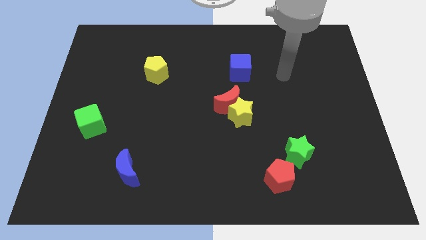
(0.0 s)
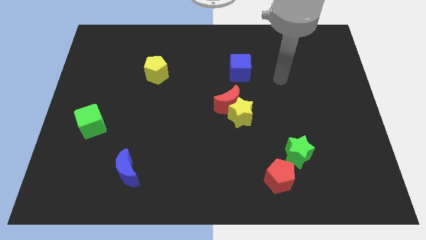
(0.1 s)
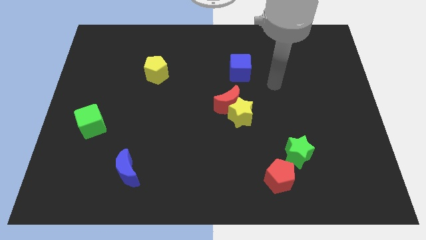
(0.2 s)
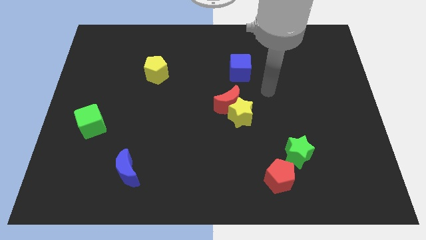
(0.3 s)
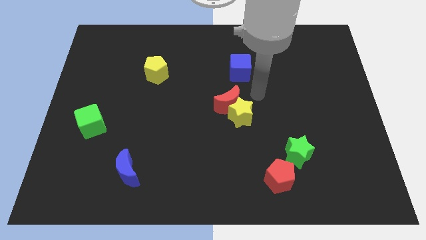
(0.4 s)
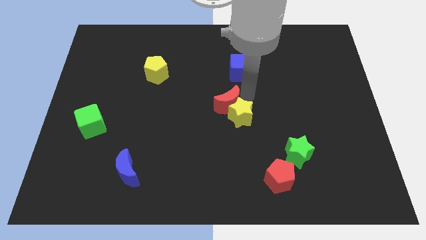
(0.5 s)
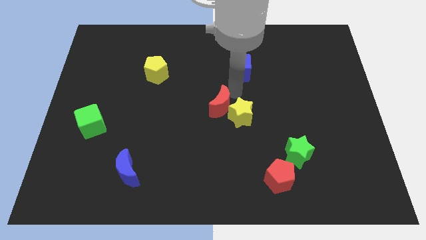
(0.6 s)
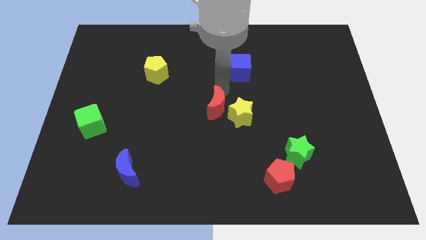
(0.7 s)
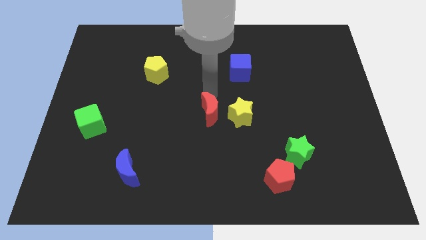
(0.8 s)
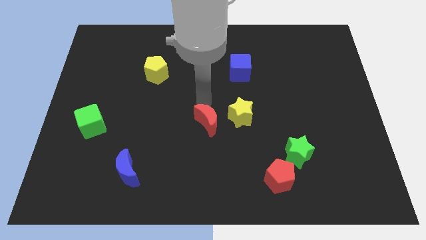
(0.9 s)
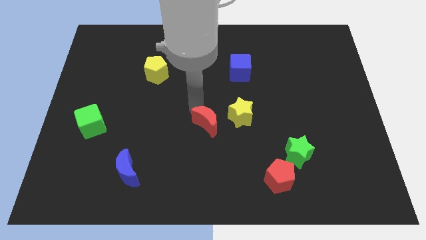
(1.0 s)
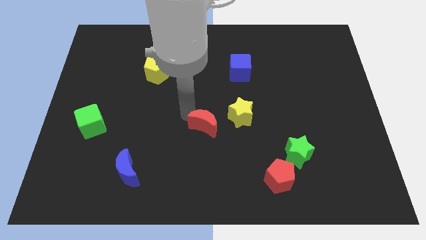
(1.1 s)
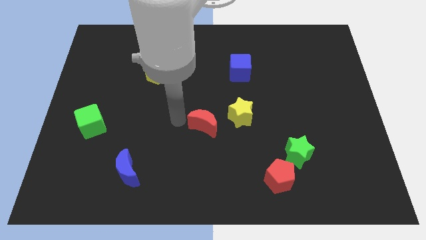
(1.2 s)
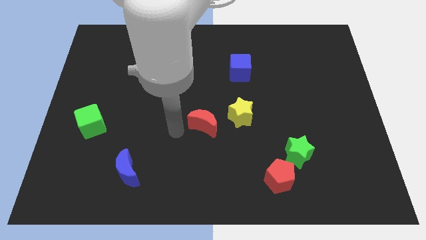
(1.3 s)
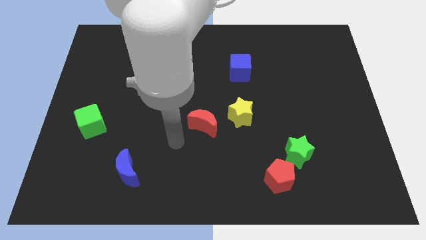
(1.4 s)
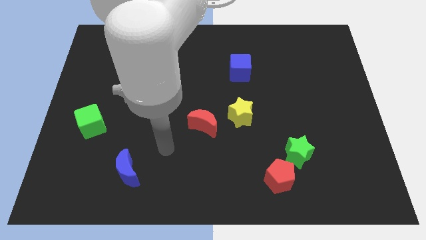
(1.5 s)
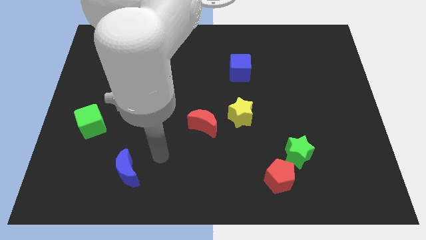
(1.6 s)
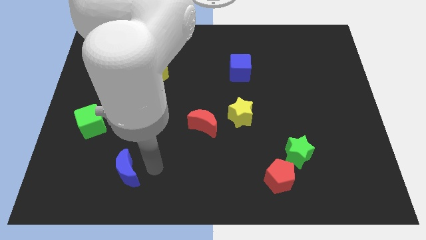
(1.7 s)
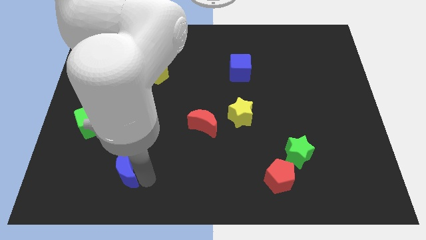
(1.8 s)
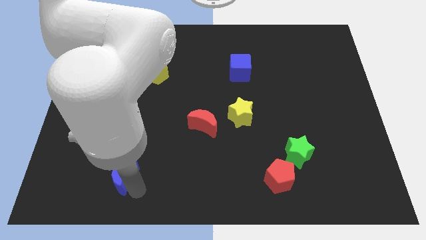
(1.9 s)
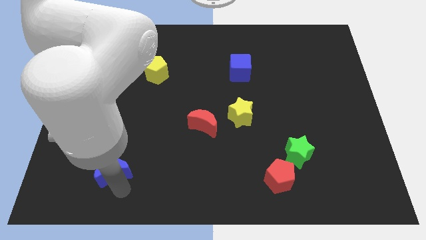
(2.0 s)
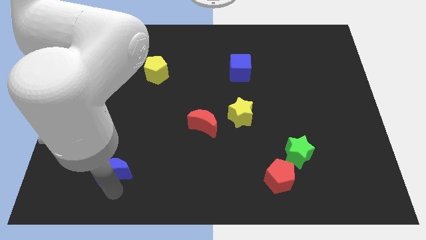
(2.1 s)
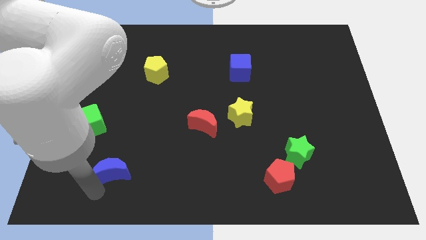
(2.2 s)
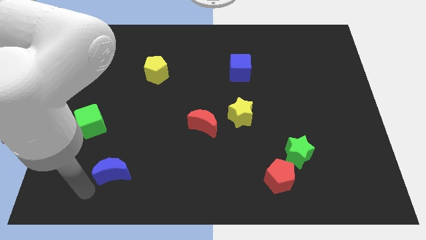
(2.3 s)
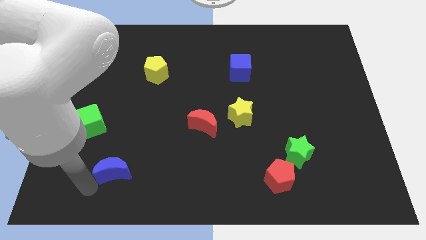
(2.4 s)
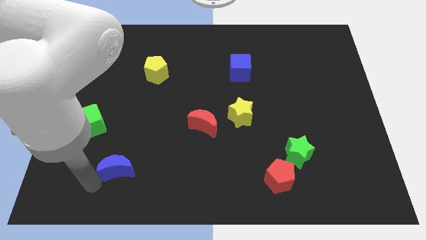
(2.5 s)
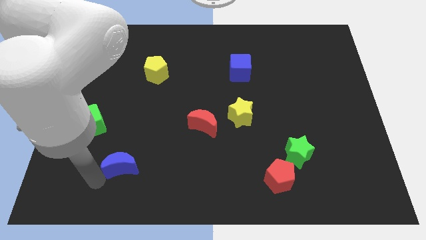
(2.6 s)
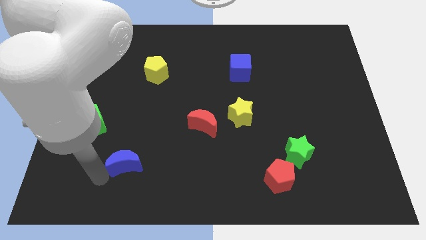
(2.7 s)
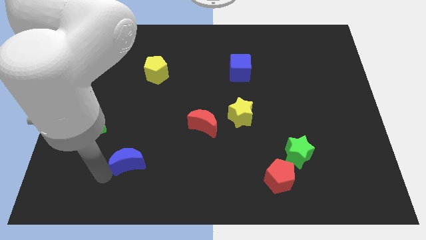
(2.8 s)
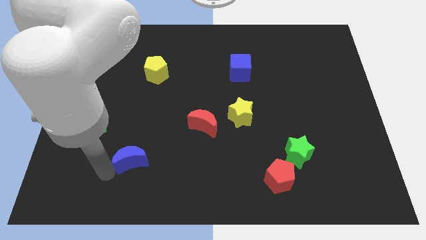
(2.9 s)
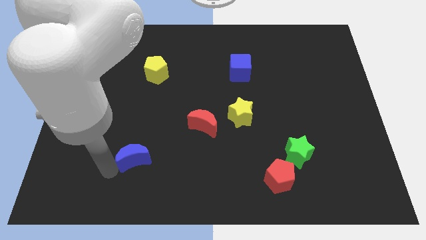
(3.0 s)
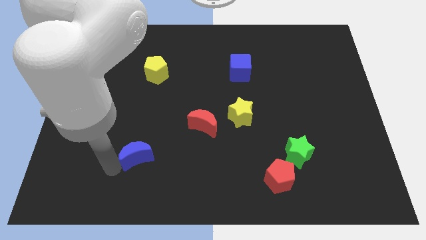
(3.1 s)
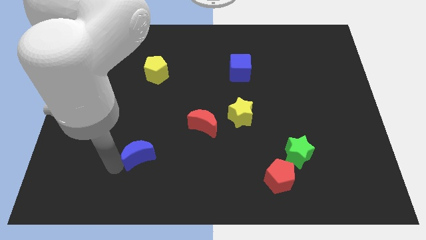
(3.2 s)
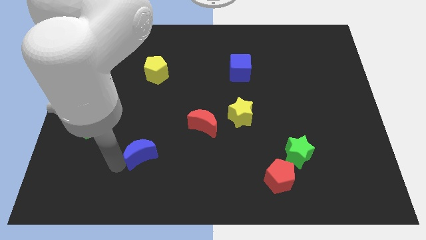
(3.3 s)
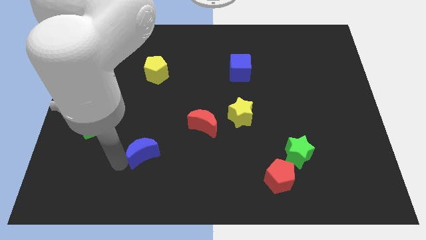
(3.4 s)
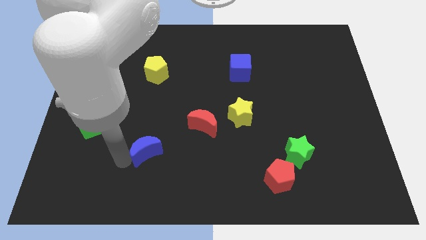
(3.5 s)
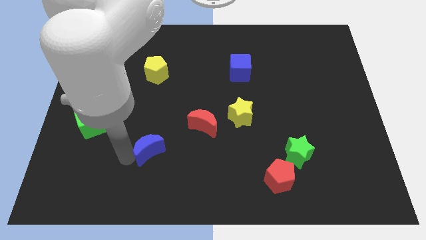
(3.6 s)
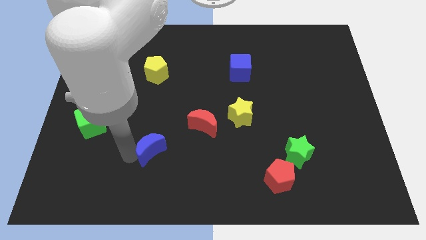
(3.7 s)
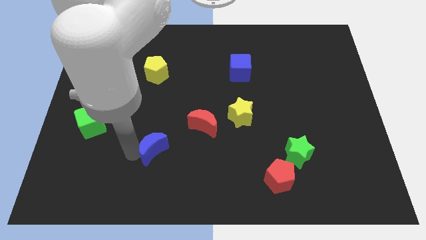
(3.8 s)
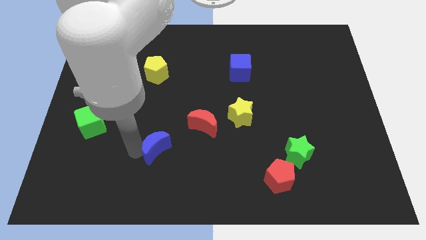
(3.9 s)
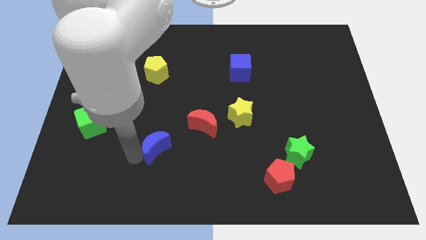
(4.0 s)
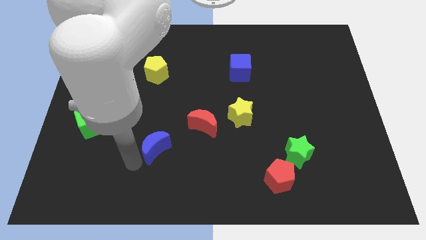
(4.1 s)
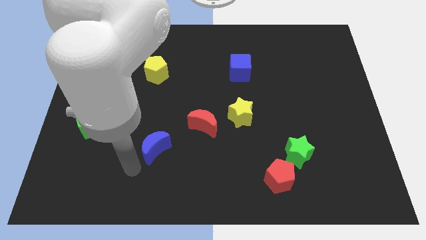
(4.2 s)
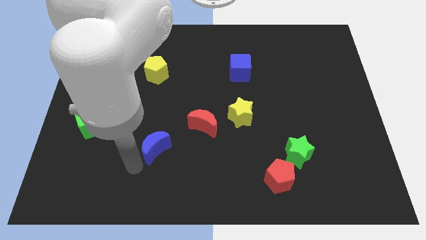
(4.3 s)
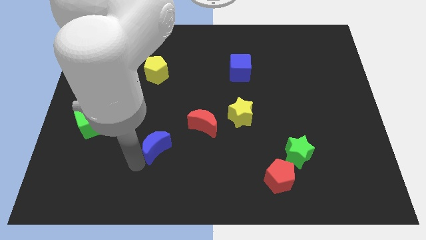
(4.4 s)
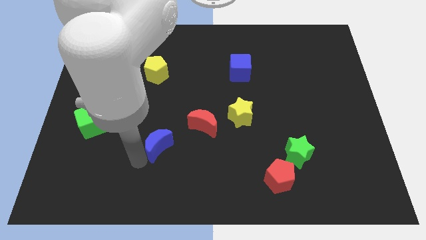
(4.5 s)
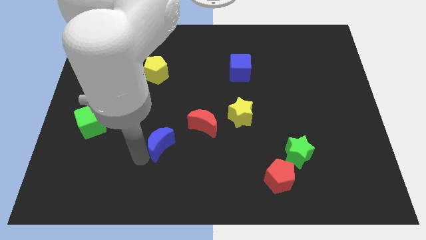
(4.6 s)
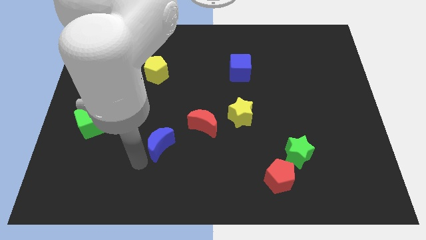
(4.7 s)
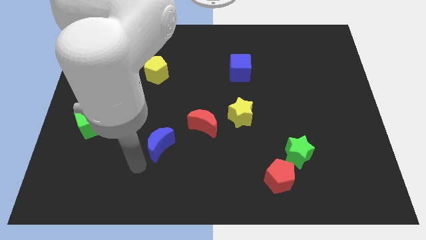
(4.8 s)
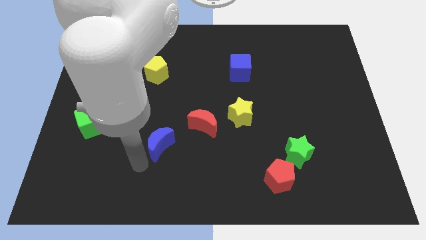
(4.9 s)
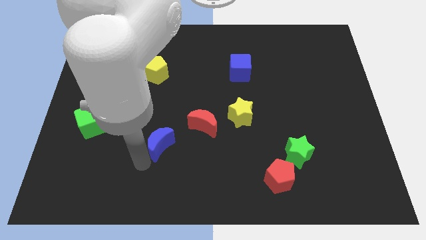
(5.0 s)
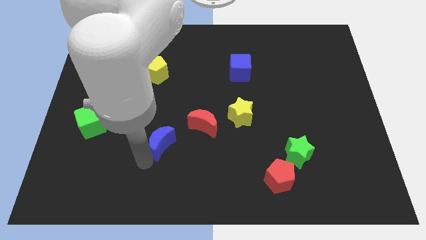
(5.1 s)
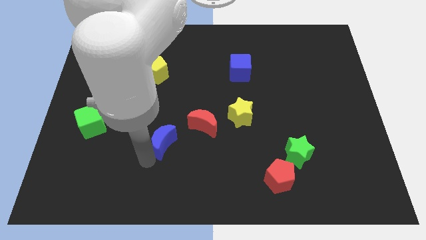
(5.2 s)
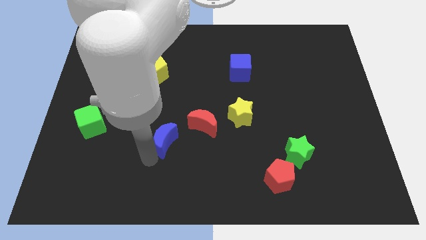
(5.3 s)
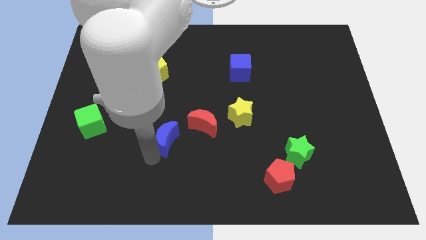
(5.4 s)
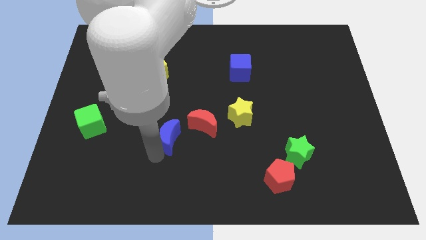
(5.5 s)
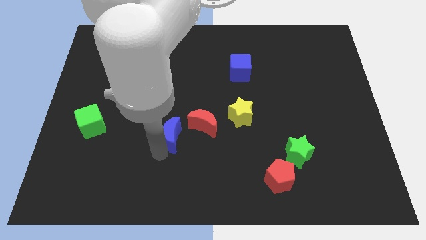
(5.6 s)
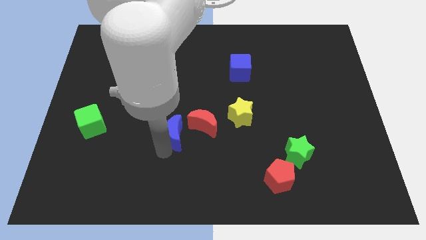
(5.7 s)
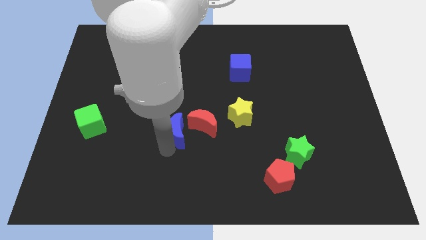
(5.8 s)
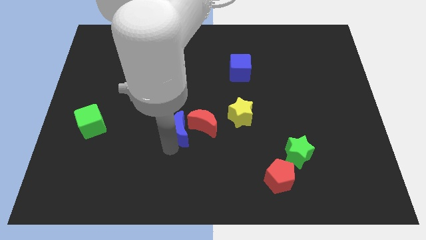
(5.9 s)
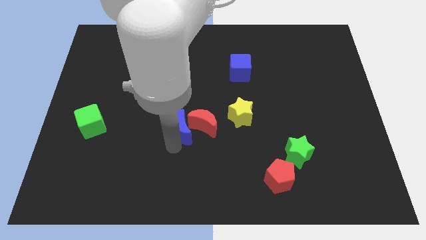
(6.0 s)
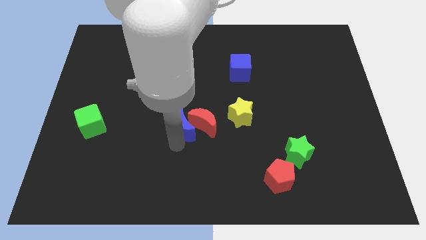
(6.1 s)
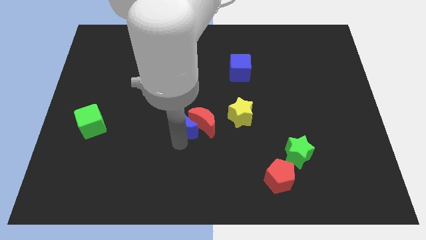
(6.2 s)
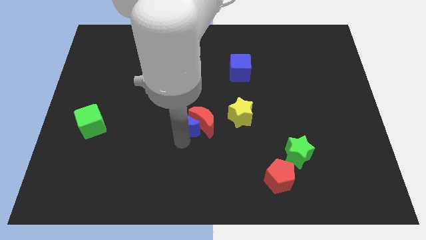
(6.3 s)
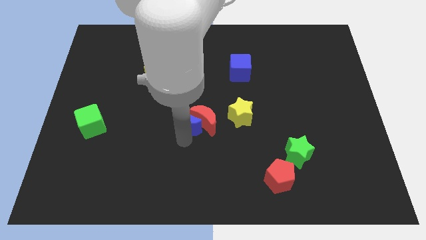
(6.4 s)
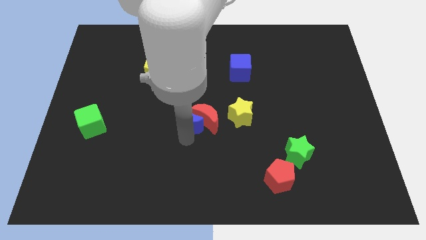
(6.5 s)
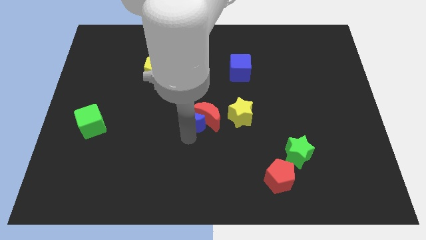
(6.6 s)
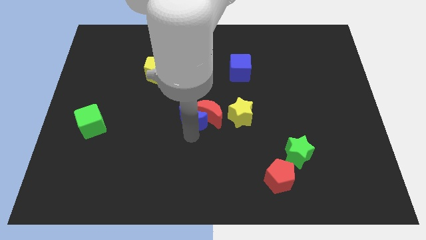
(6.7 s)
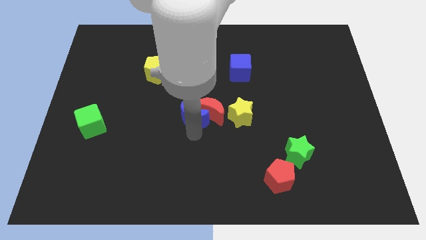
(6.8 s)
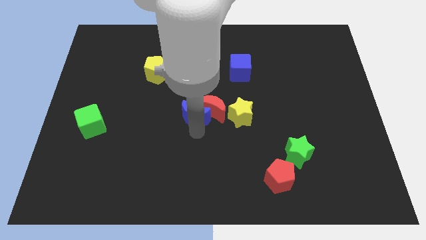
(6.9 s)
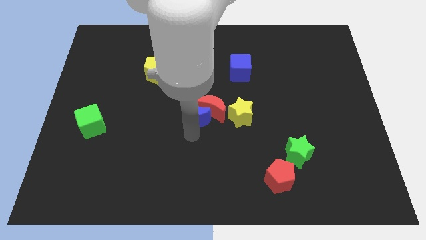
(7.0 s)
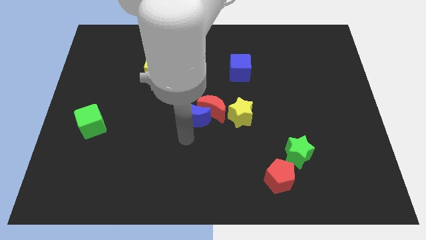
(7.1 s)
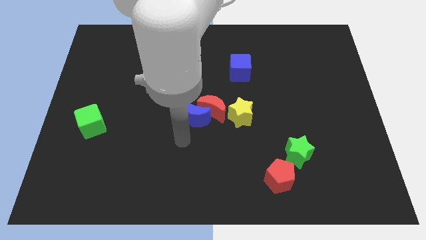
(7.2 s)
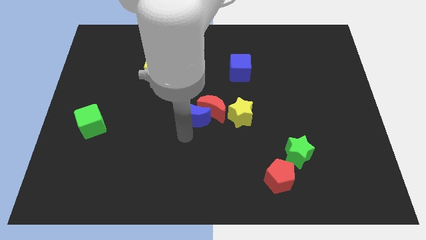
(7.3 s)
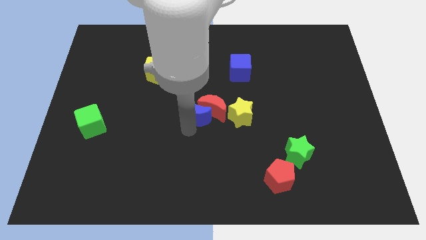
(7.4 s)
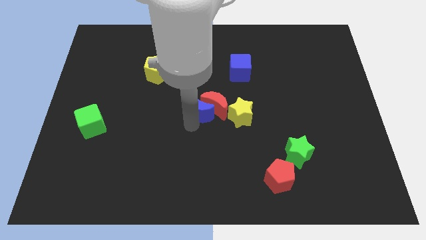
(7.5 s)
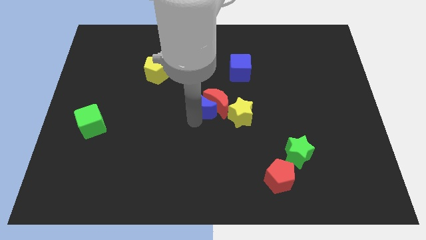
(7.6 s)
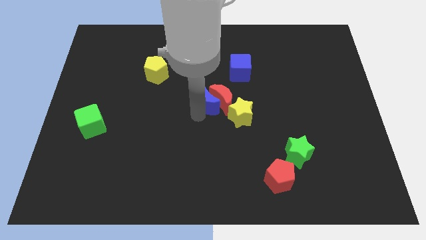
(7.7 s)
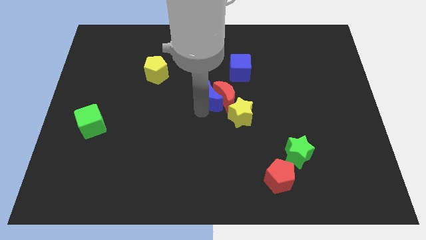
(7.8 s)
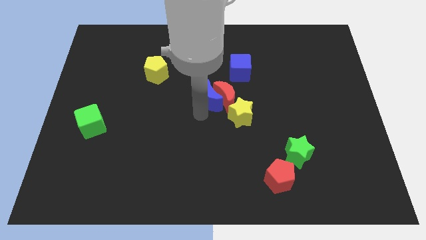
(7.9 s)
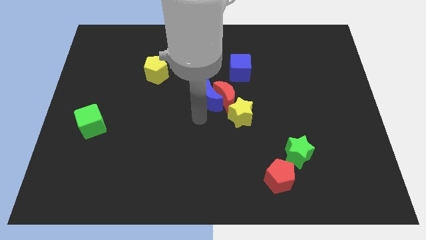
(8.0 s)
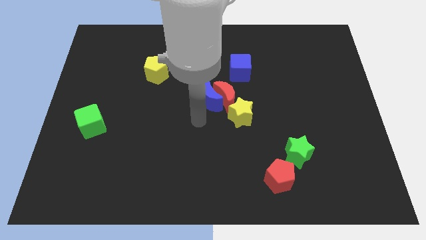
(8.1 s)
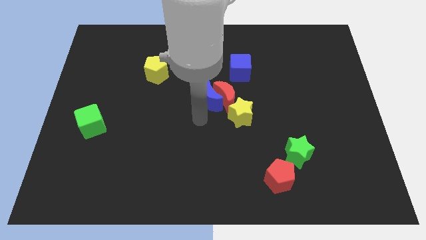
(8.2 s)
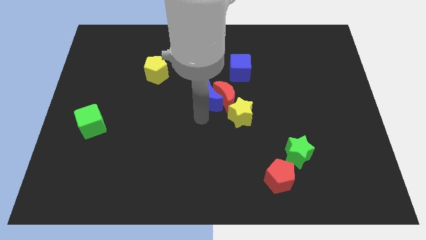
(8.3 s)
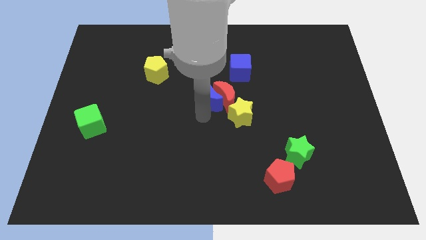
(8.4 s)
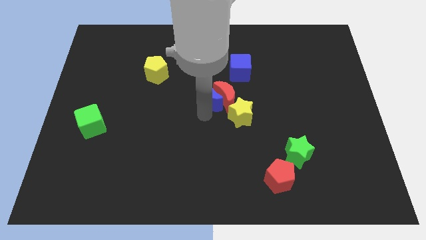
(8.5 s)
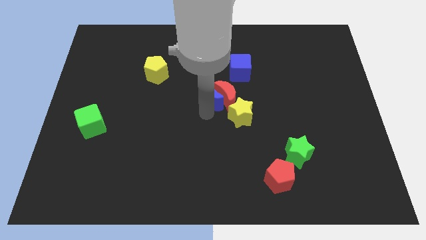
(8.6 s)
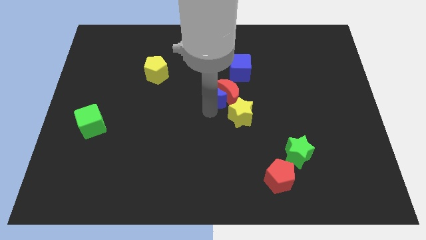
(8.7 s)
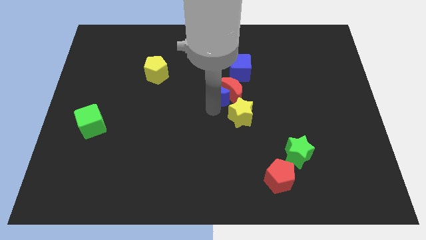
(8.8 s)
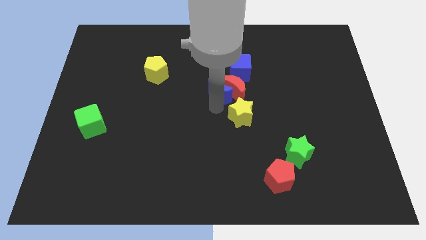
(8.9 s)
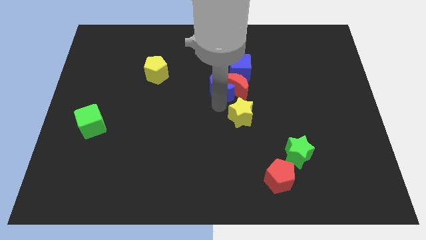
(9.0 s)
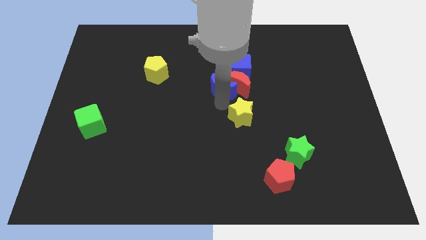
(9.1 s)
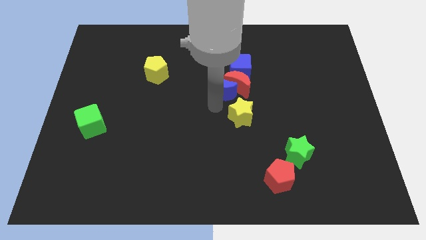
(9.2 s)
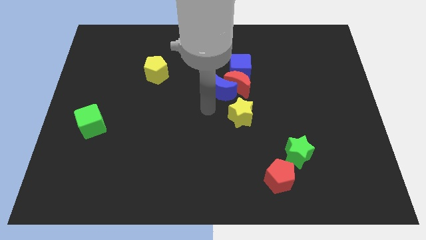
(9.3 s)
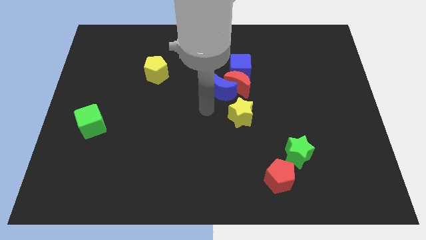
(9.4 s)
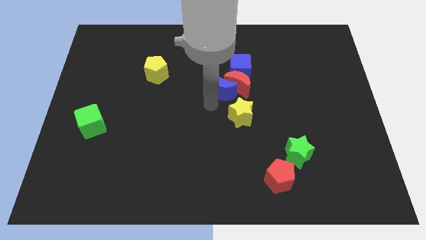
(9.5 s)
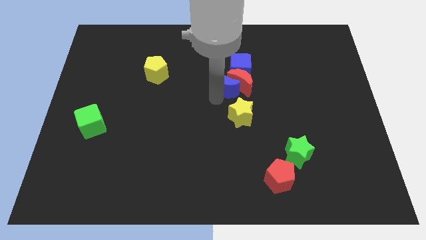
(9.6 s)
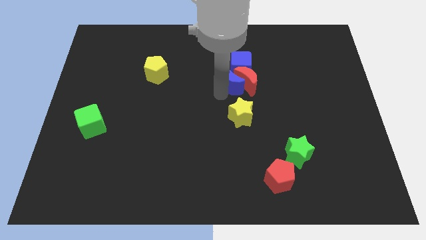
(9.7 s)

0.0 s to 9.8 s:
slide the blue moon close to the blue cube
